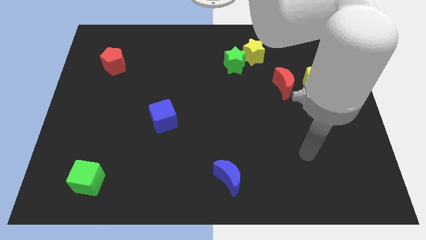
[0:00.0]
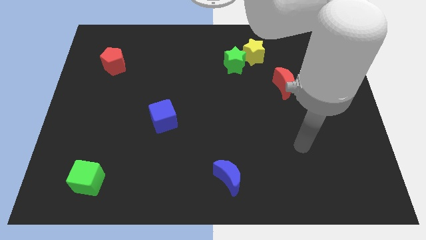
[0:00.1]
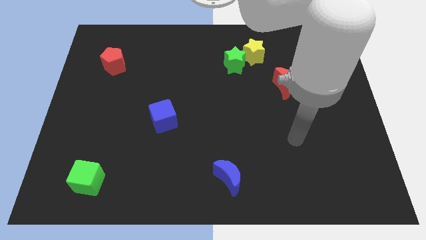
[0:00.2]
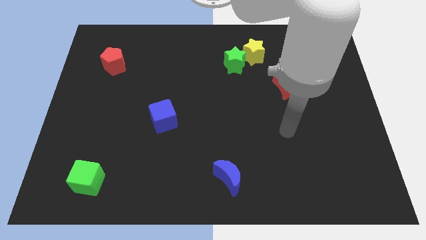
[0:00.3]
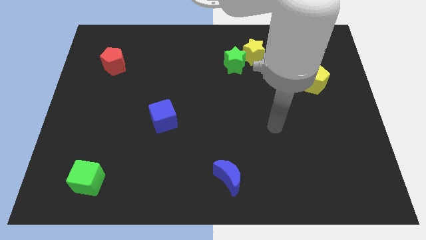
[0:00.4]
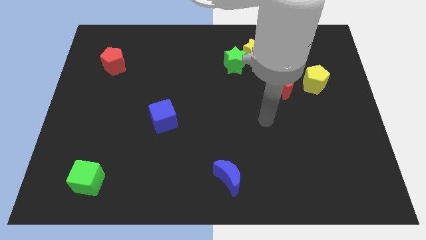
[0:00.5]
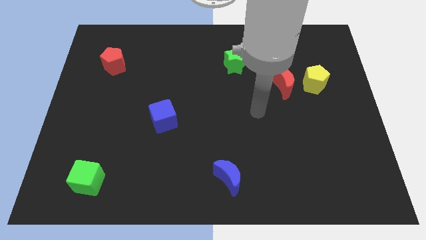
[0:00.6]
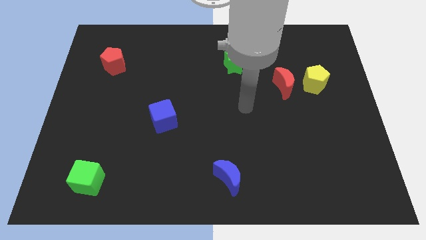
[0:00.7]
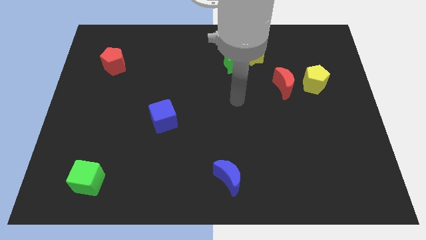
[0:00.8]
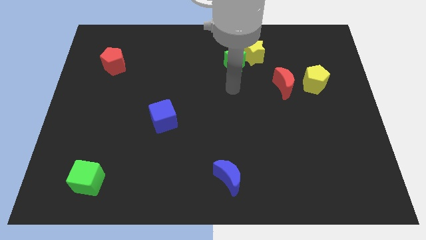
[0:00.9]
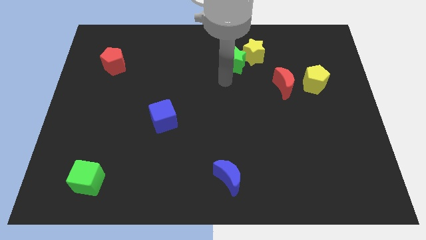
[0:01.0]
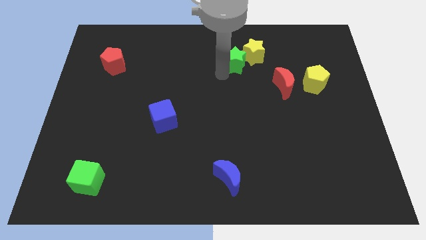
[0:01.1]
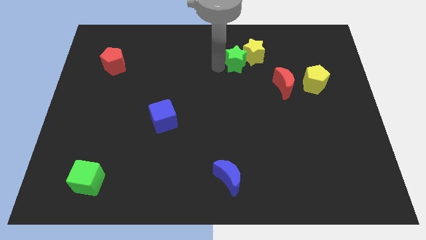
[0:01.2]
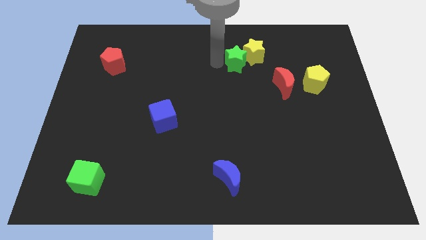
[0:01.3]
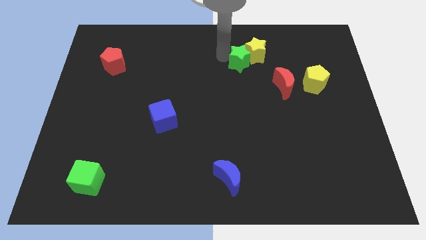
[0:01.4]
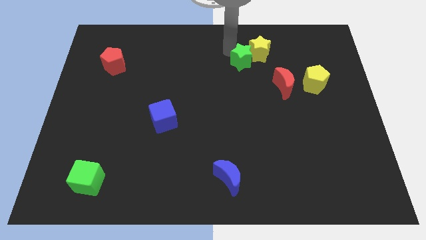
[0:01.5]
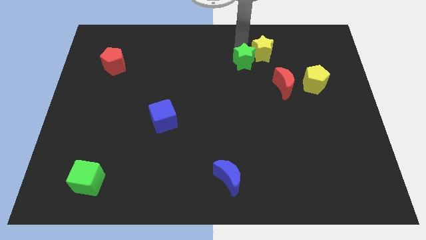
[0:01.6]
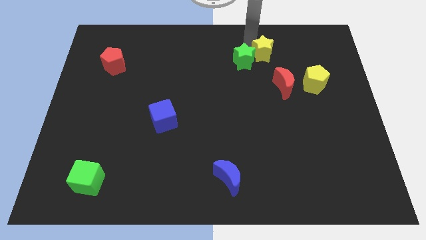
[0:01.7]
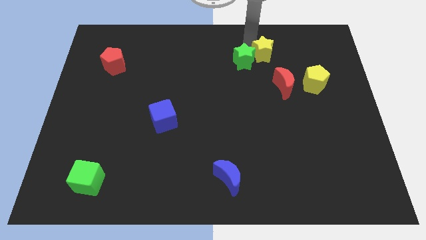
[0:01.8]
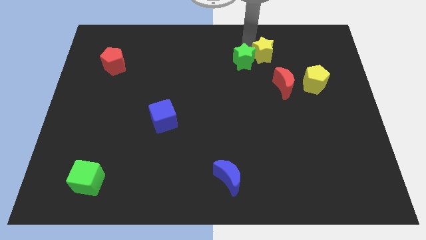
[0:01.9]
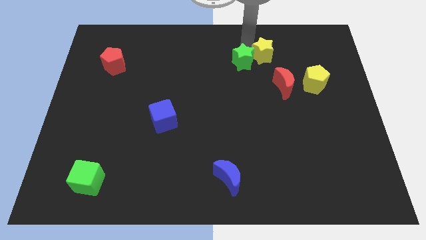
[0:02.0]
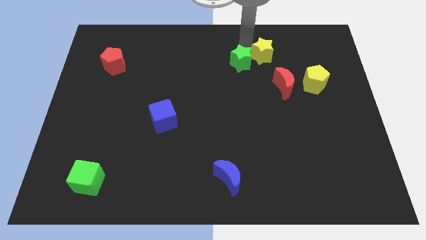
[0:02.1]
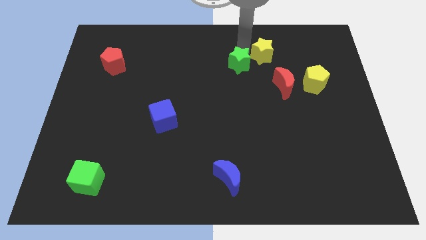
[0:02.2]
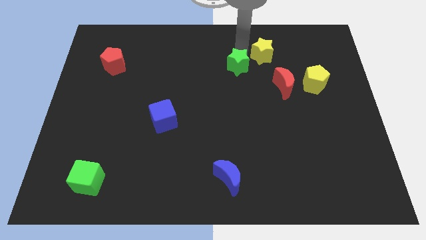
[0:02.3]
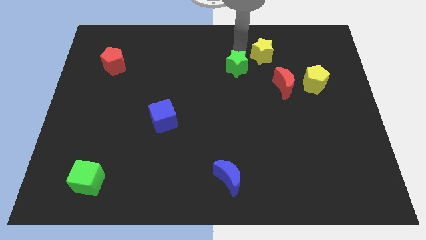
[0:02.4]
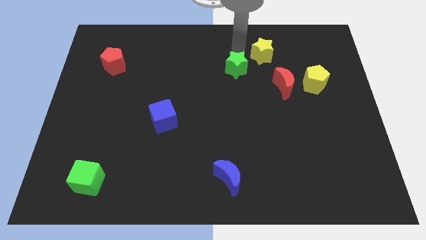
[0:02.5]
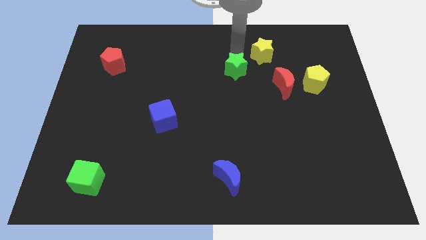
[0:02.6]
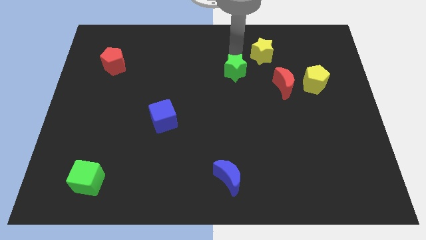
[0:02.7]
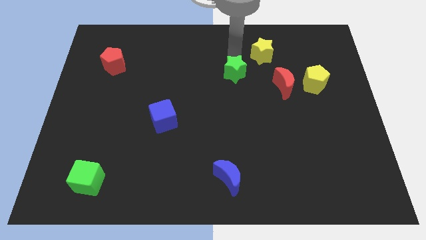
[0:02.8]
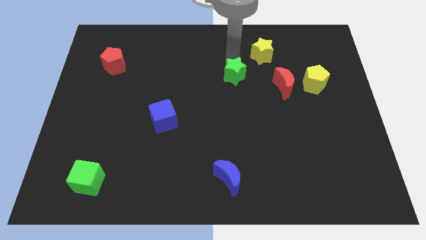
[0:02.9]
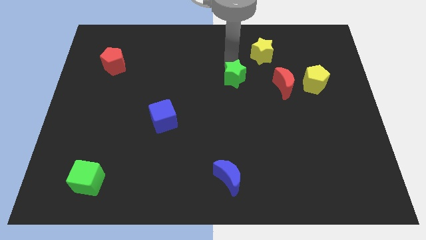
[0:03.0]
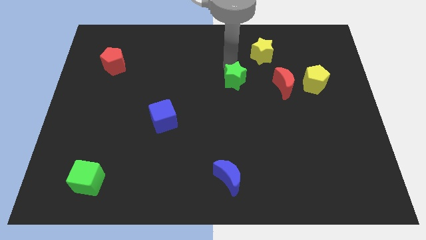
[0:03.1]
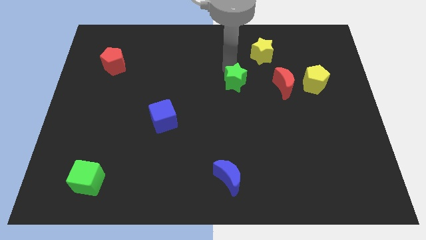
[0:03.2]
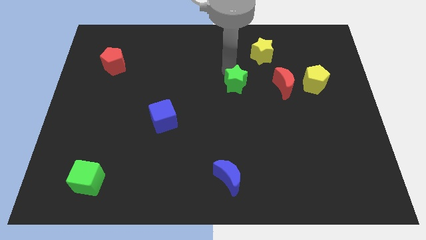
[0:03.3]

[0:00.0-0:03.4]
slide the green star downwards a little

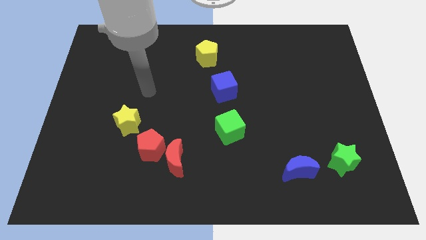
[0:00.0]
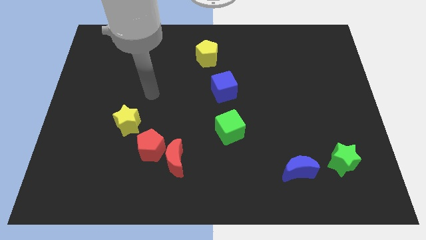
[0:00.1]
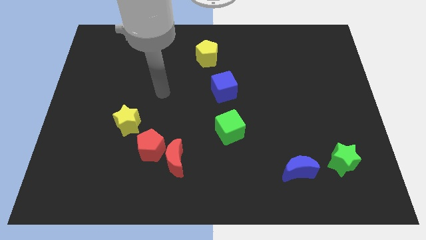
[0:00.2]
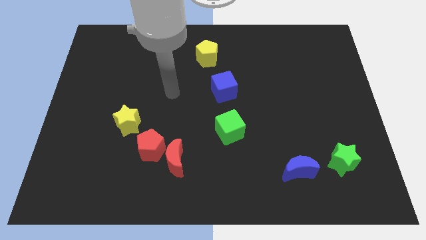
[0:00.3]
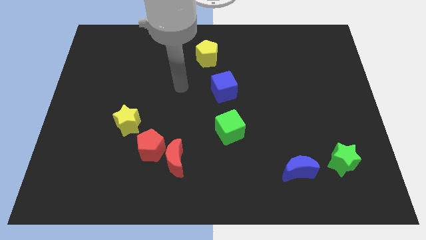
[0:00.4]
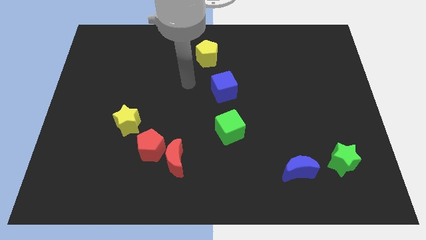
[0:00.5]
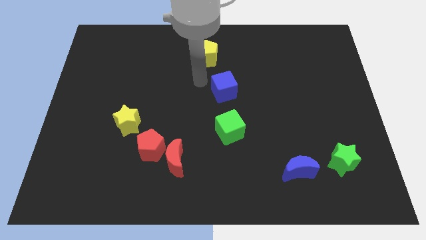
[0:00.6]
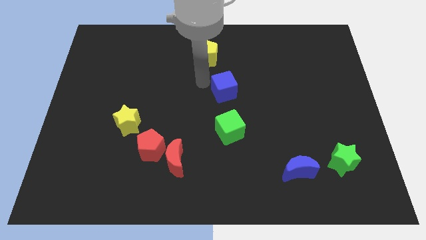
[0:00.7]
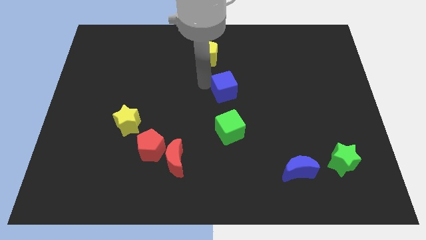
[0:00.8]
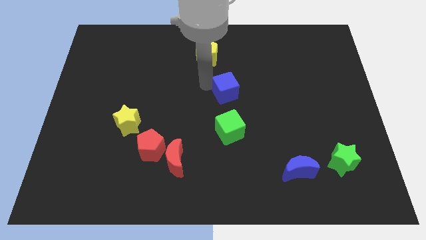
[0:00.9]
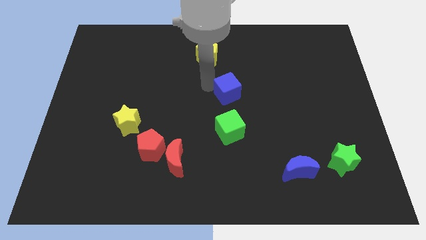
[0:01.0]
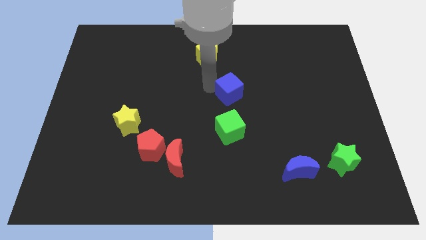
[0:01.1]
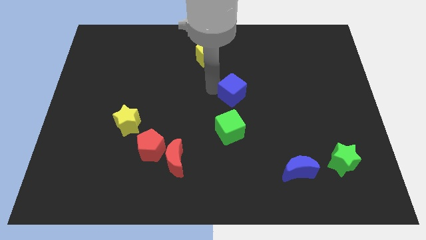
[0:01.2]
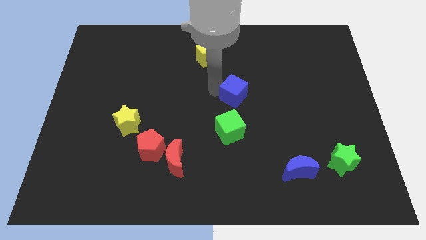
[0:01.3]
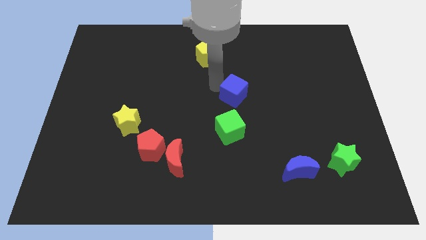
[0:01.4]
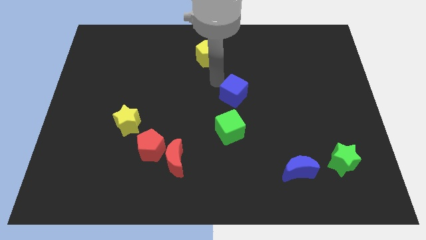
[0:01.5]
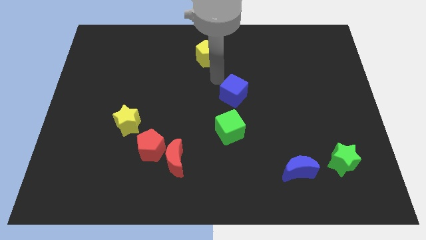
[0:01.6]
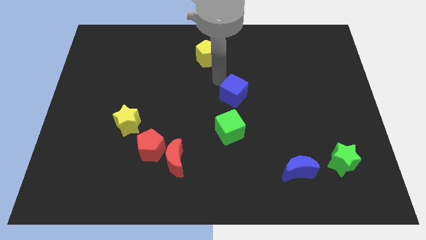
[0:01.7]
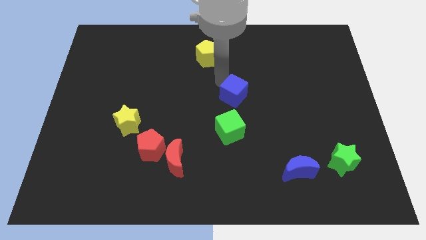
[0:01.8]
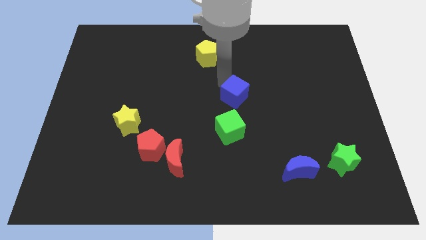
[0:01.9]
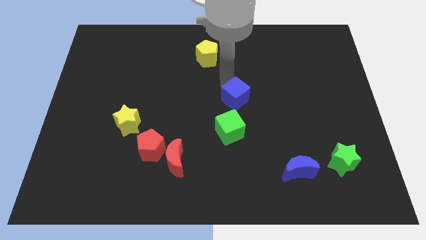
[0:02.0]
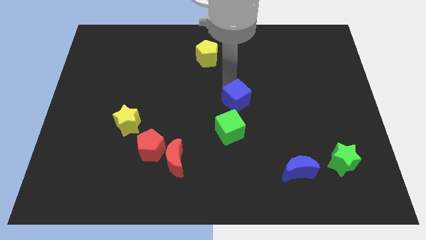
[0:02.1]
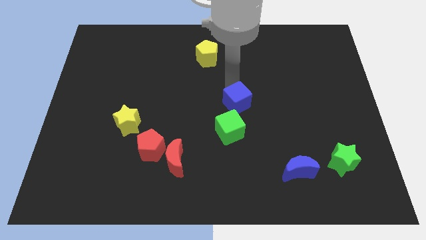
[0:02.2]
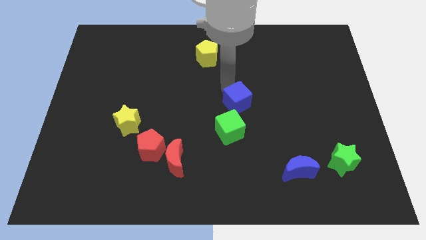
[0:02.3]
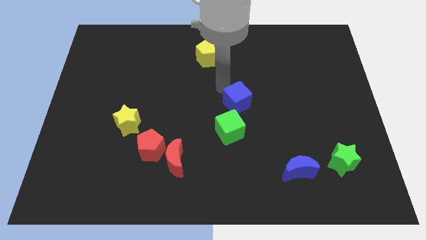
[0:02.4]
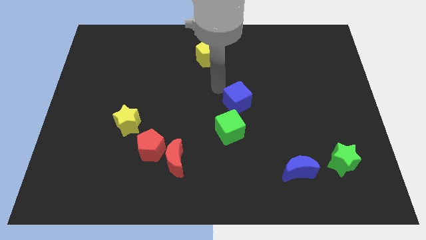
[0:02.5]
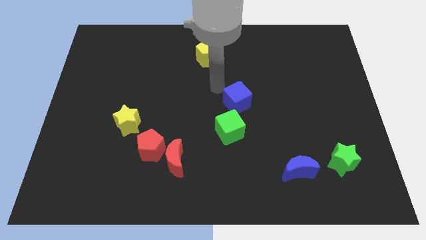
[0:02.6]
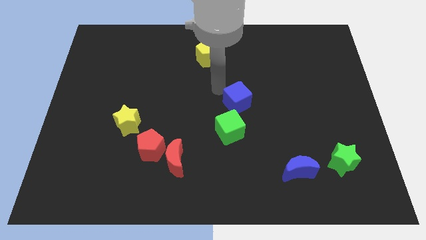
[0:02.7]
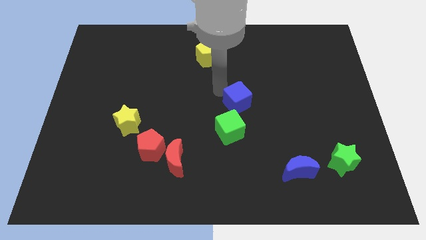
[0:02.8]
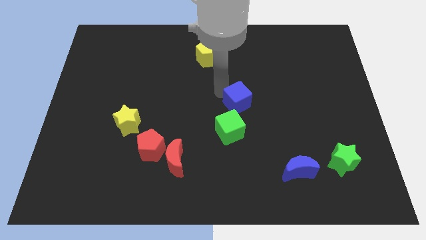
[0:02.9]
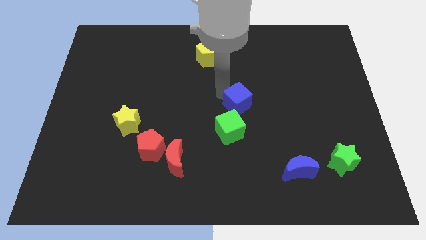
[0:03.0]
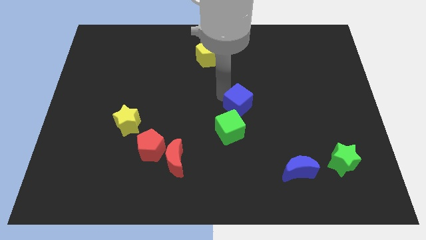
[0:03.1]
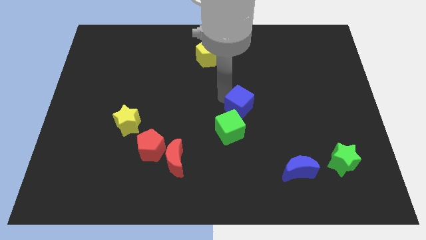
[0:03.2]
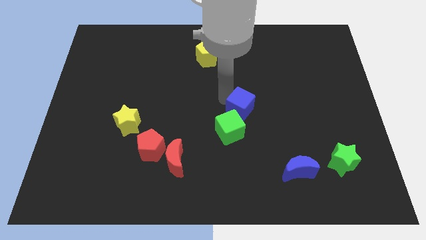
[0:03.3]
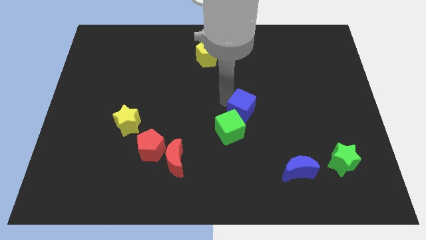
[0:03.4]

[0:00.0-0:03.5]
slightly slide the blue cube downwards and to the right

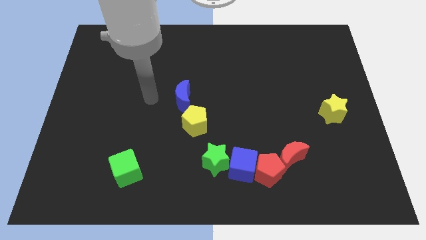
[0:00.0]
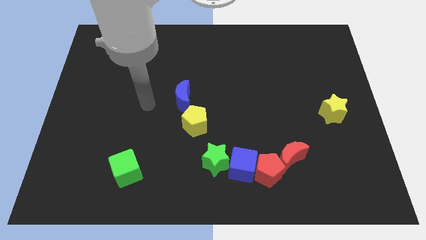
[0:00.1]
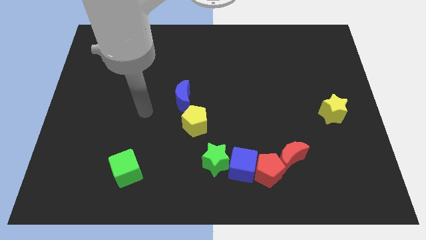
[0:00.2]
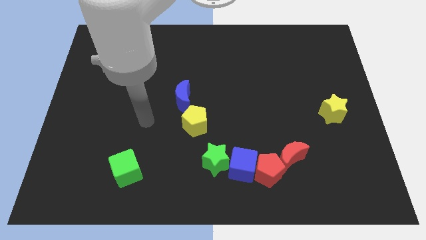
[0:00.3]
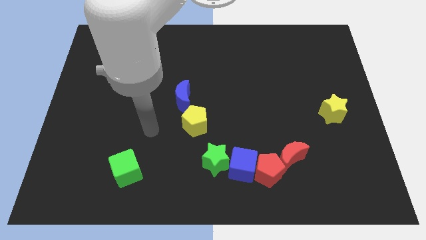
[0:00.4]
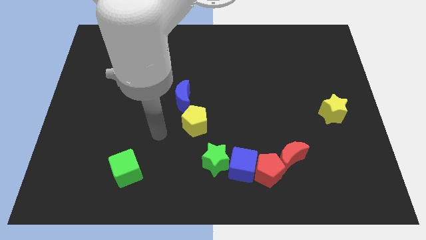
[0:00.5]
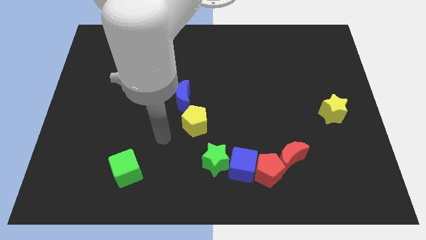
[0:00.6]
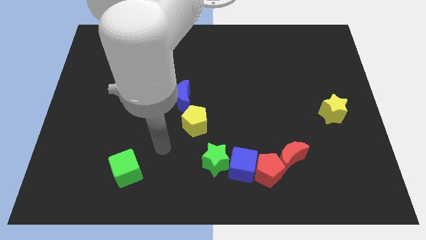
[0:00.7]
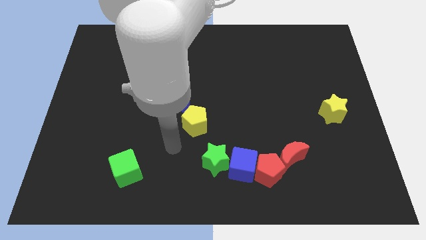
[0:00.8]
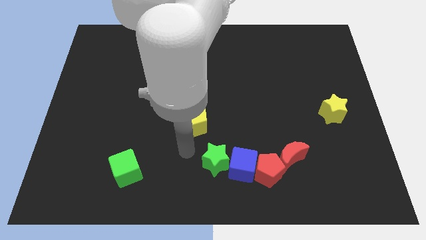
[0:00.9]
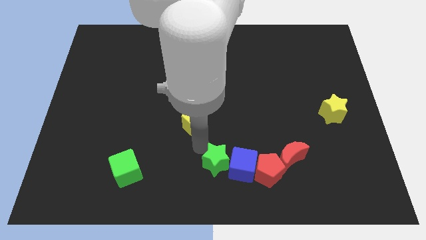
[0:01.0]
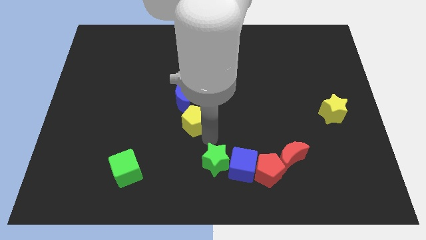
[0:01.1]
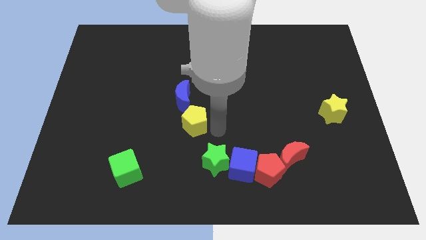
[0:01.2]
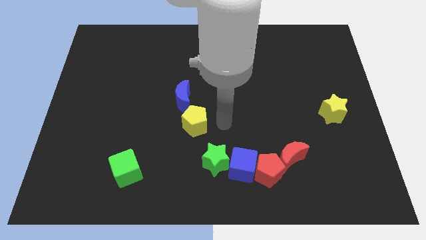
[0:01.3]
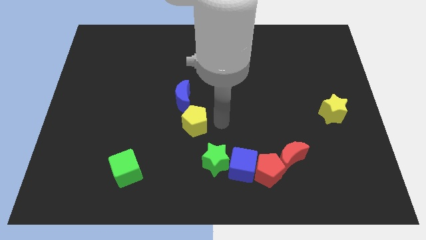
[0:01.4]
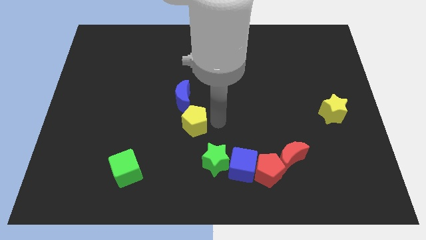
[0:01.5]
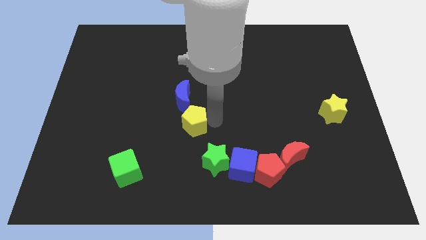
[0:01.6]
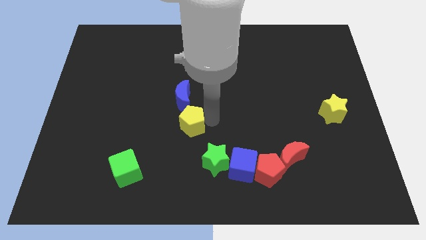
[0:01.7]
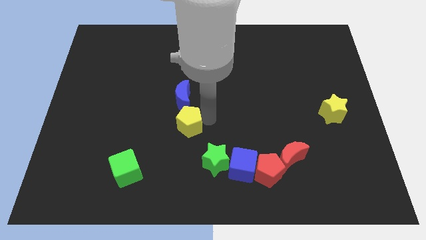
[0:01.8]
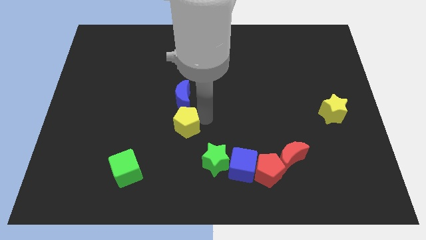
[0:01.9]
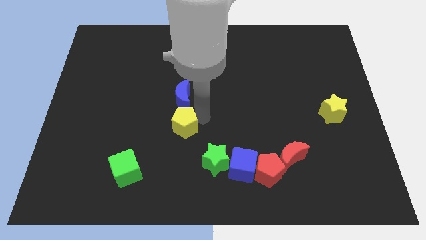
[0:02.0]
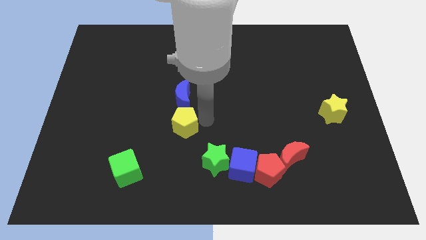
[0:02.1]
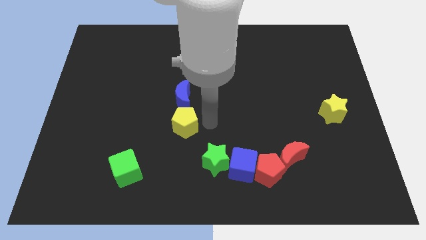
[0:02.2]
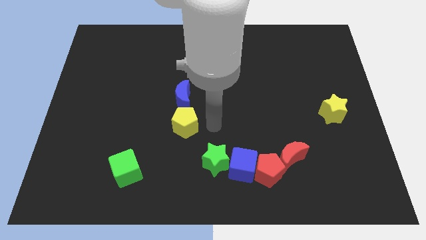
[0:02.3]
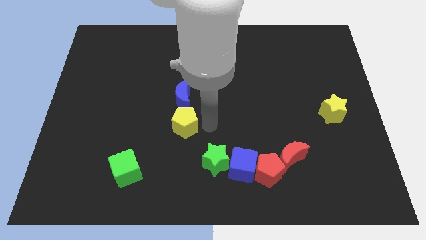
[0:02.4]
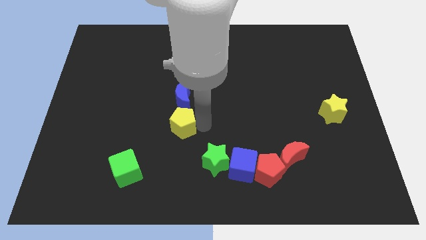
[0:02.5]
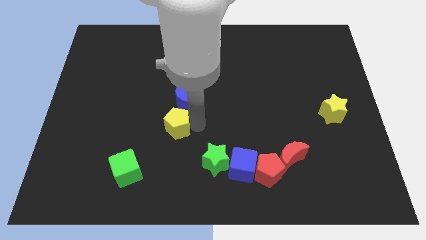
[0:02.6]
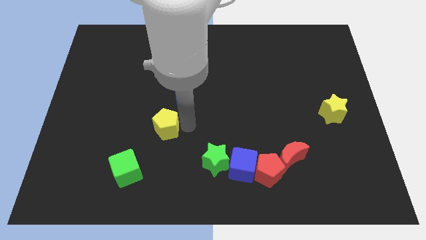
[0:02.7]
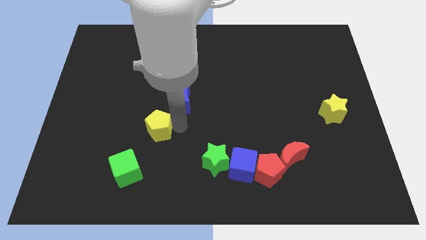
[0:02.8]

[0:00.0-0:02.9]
slide the yellow pentagon to the left a bit
